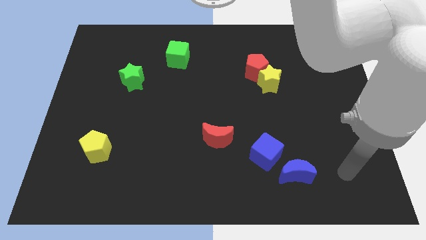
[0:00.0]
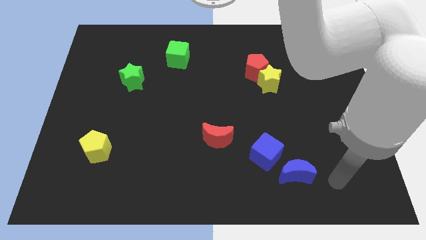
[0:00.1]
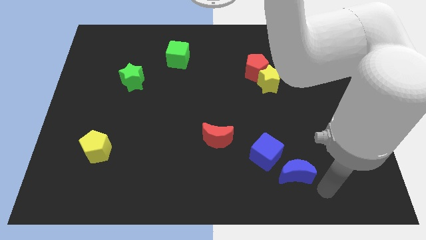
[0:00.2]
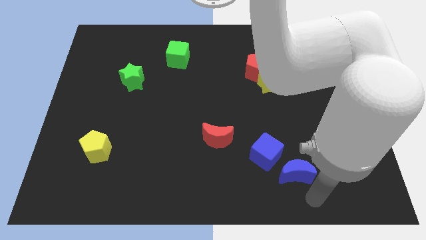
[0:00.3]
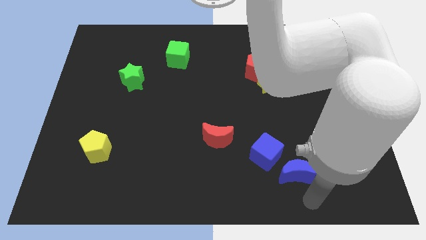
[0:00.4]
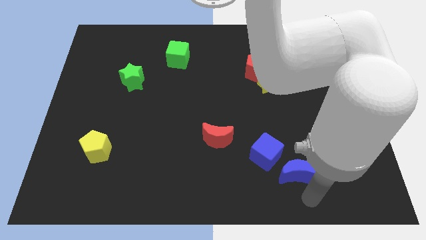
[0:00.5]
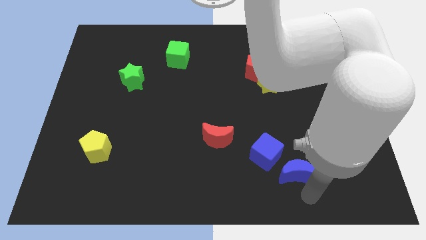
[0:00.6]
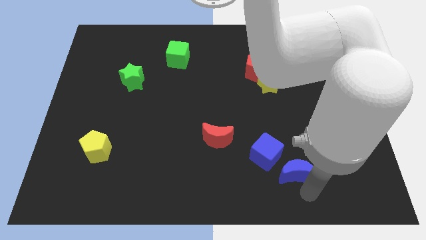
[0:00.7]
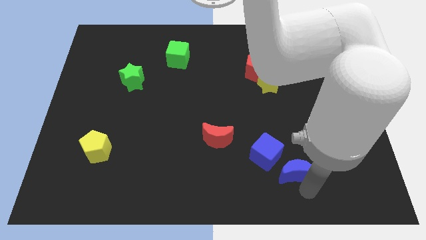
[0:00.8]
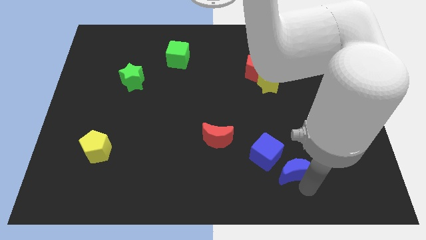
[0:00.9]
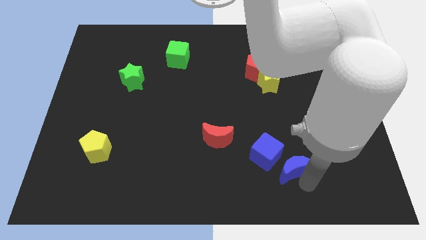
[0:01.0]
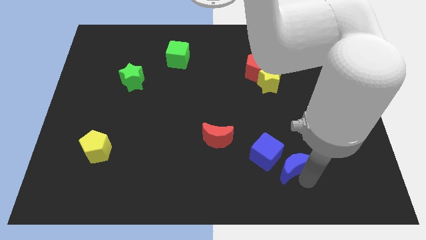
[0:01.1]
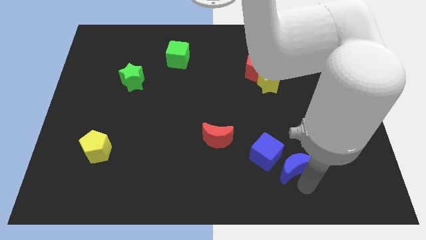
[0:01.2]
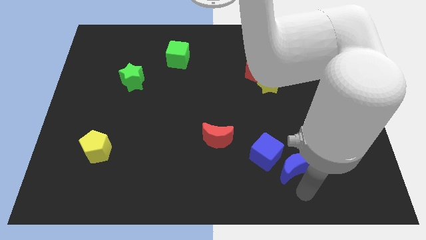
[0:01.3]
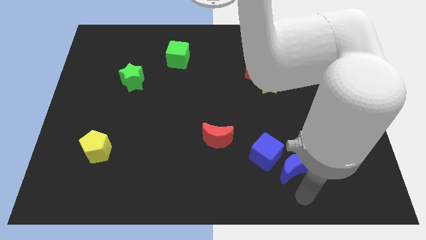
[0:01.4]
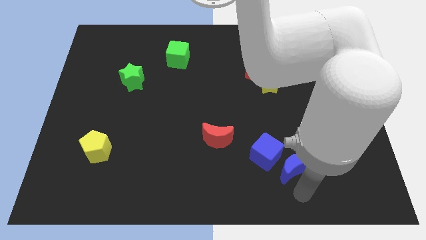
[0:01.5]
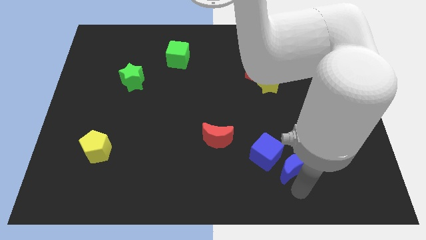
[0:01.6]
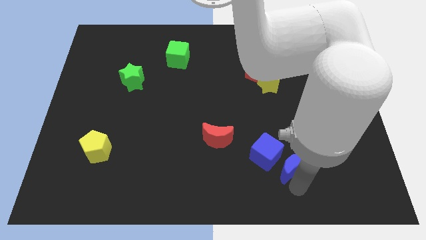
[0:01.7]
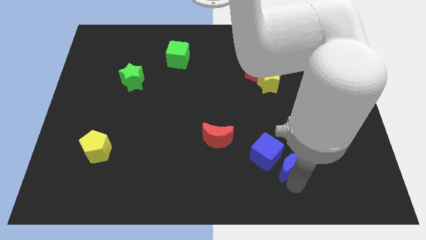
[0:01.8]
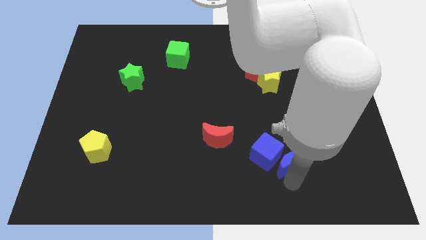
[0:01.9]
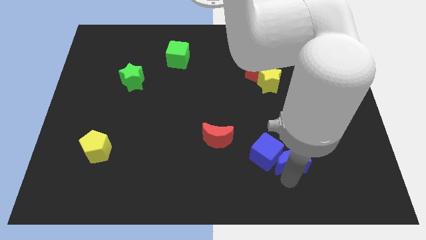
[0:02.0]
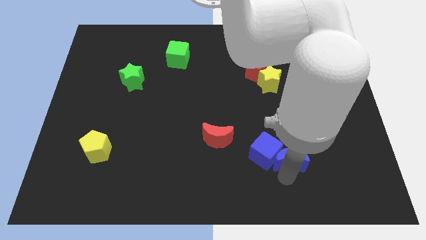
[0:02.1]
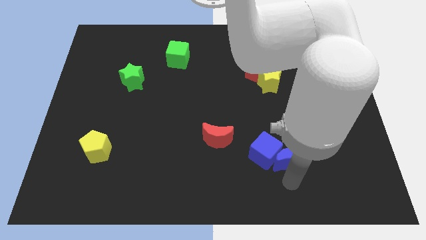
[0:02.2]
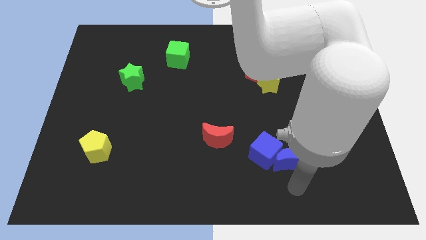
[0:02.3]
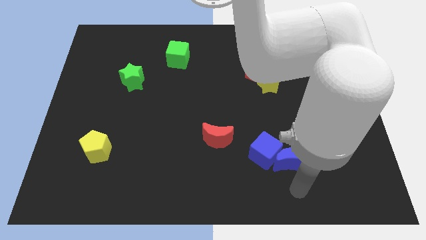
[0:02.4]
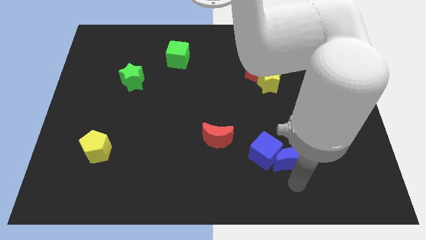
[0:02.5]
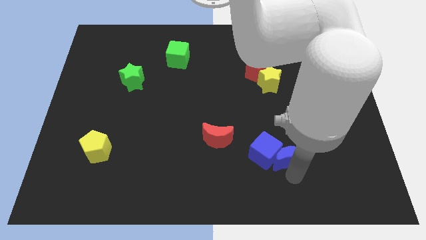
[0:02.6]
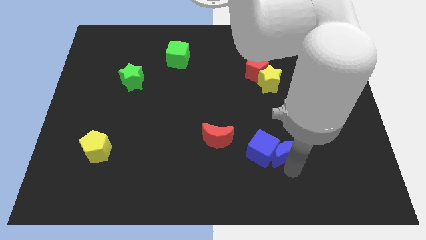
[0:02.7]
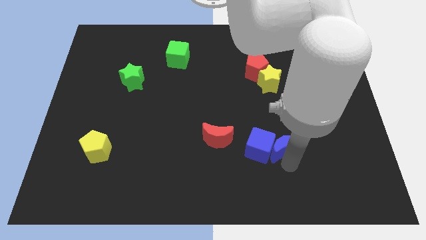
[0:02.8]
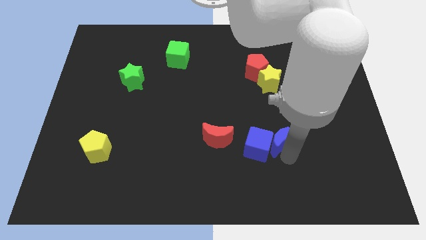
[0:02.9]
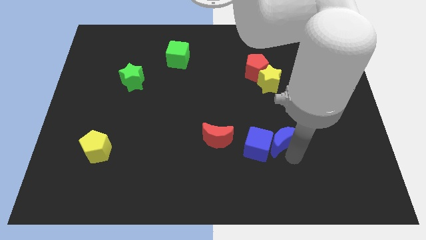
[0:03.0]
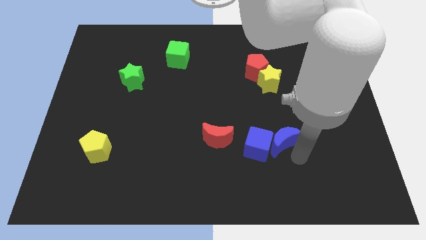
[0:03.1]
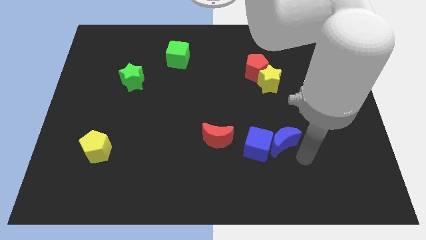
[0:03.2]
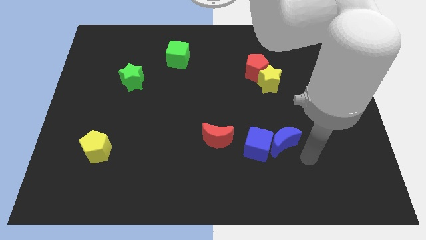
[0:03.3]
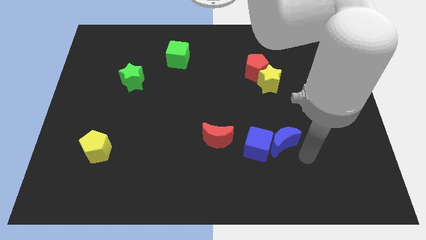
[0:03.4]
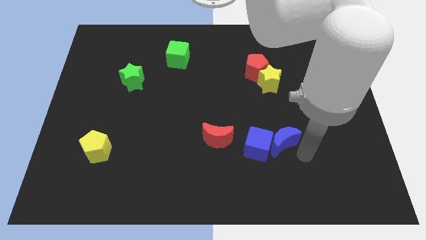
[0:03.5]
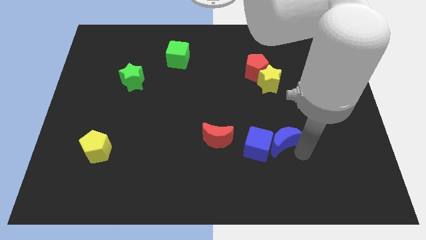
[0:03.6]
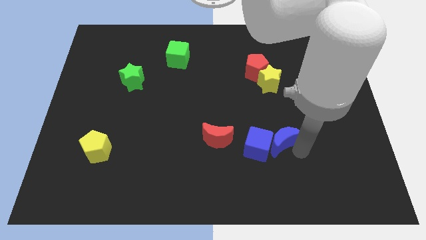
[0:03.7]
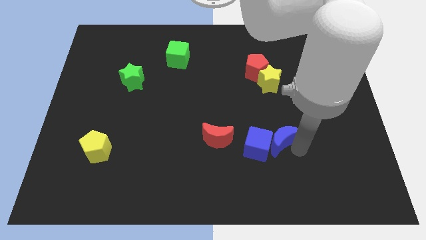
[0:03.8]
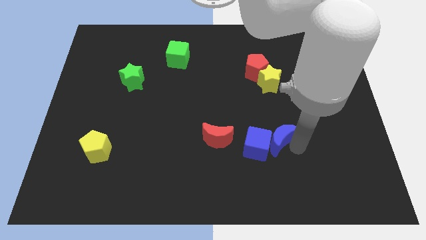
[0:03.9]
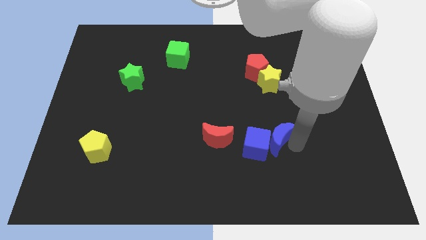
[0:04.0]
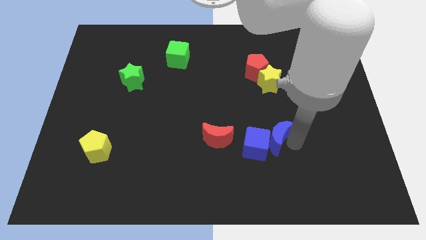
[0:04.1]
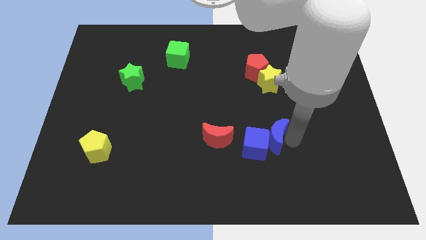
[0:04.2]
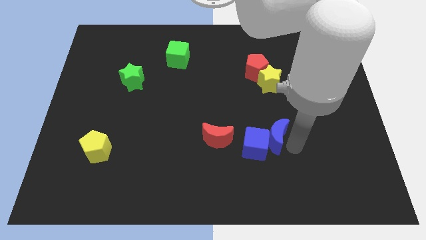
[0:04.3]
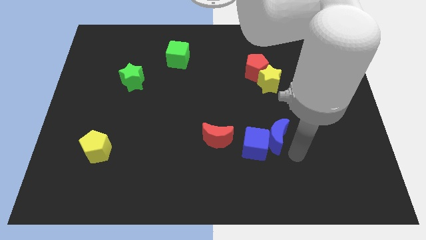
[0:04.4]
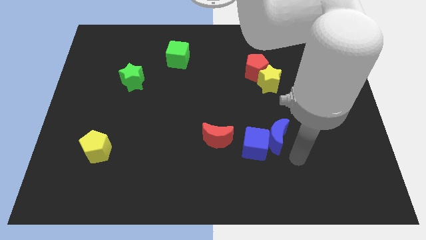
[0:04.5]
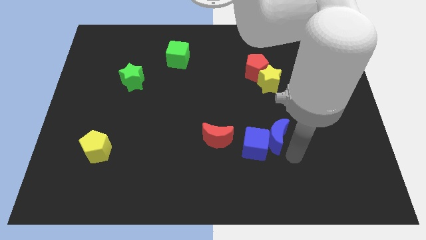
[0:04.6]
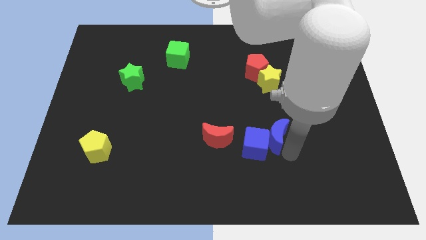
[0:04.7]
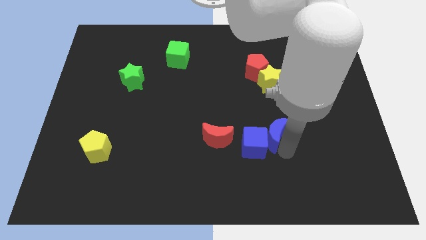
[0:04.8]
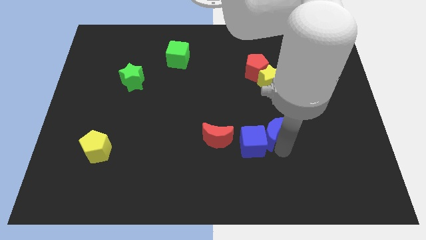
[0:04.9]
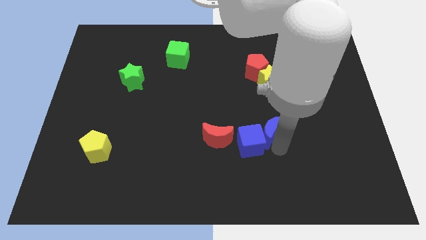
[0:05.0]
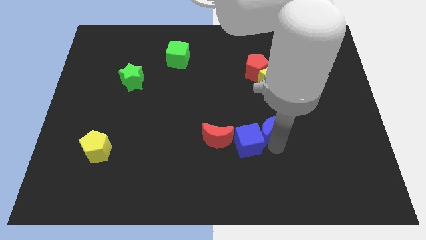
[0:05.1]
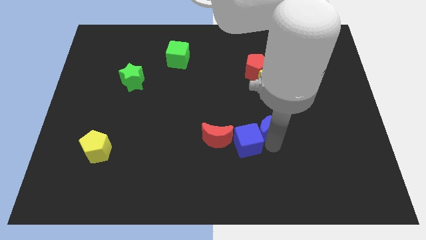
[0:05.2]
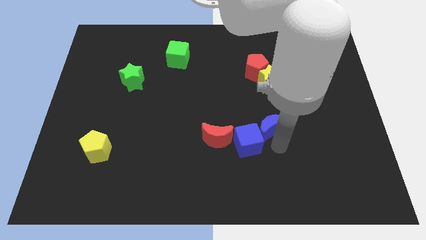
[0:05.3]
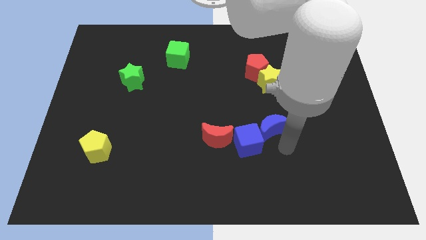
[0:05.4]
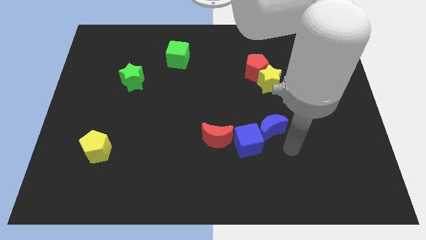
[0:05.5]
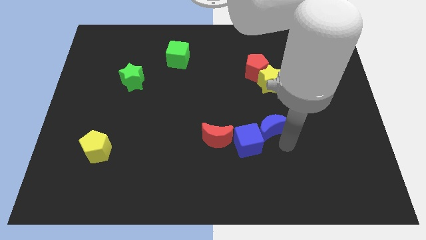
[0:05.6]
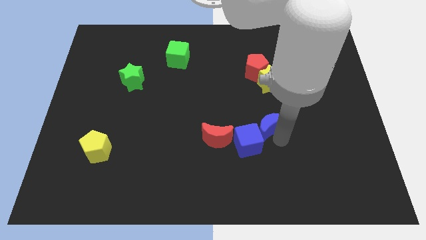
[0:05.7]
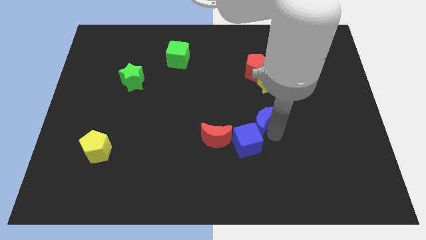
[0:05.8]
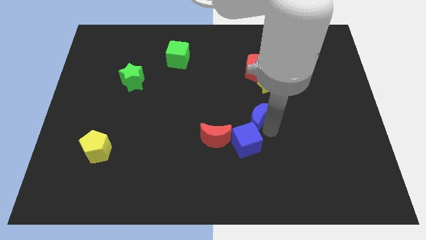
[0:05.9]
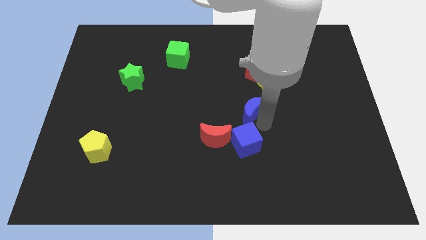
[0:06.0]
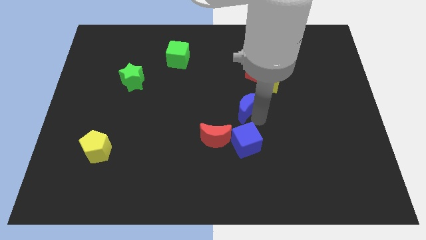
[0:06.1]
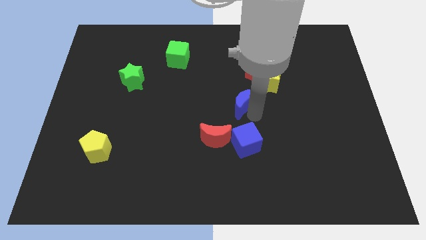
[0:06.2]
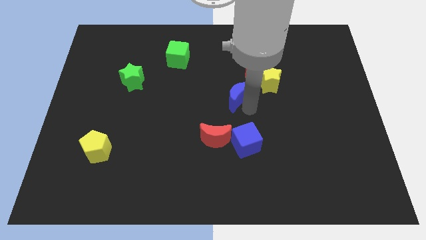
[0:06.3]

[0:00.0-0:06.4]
slide the blue moon diagonally up and left

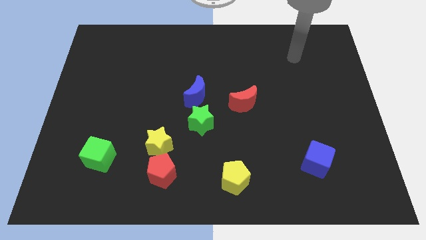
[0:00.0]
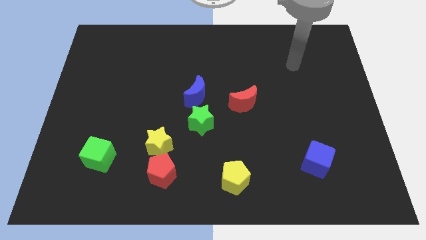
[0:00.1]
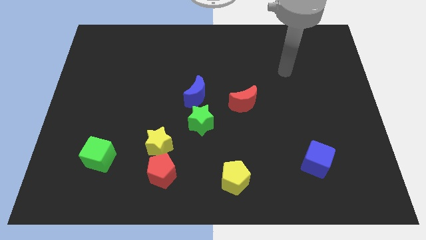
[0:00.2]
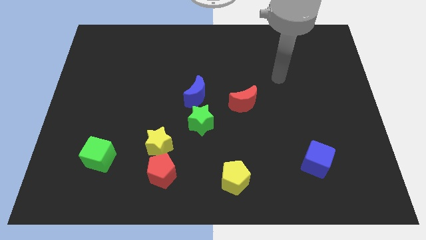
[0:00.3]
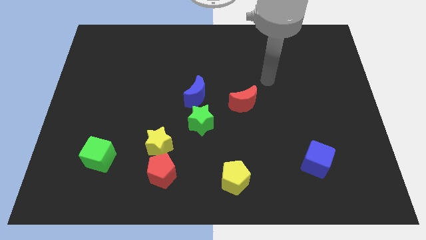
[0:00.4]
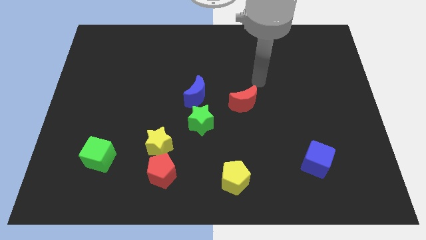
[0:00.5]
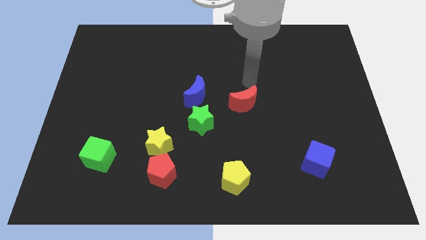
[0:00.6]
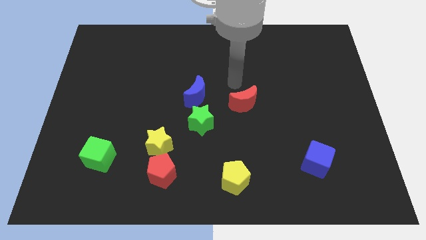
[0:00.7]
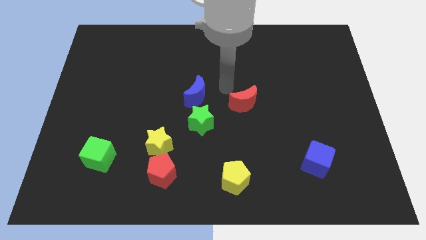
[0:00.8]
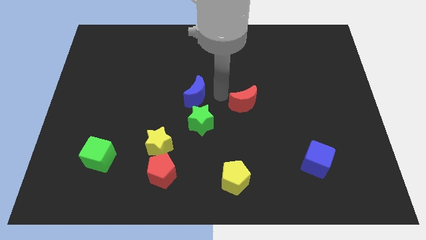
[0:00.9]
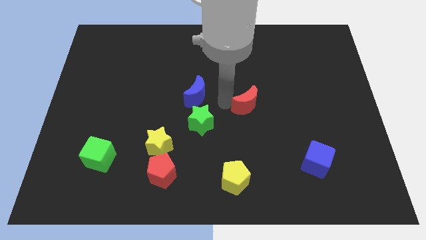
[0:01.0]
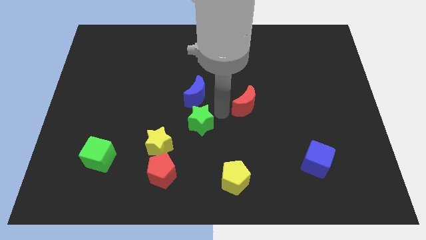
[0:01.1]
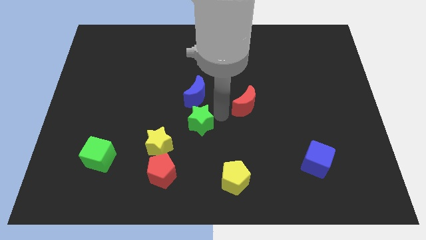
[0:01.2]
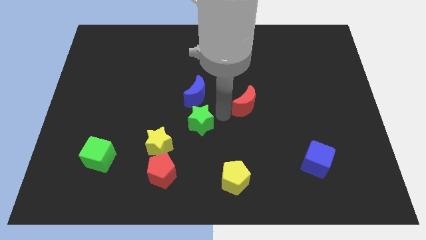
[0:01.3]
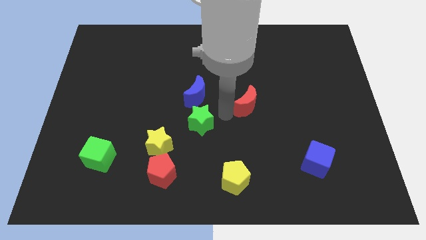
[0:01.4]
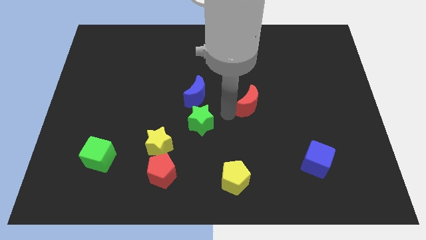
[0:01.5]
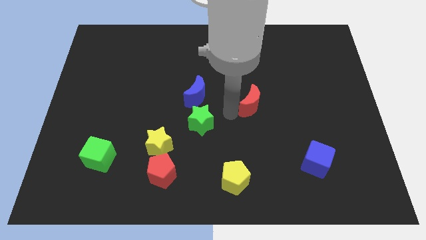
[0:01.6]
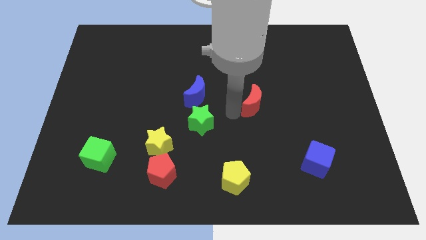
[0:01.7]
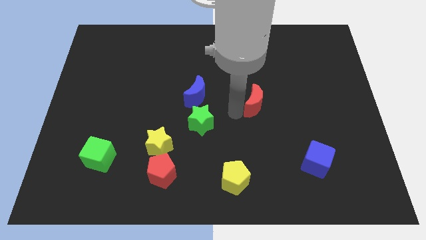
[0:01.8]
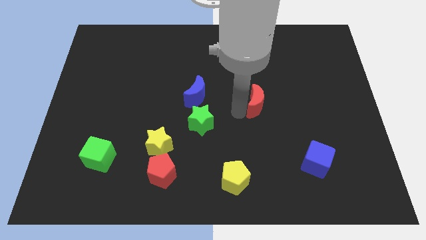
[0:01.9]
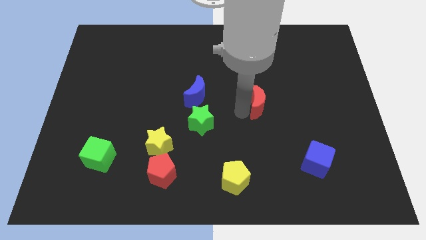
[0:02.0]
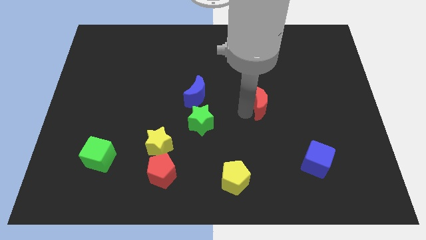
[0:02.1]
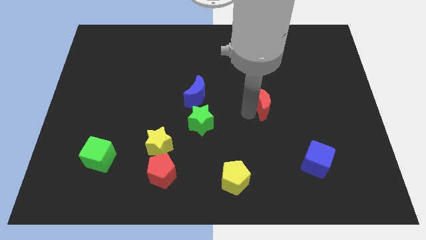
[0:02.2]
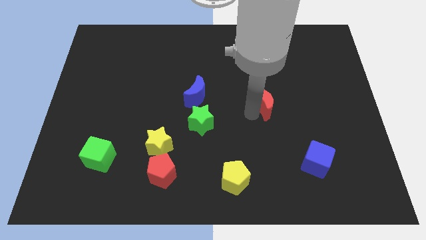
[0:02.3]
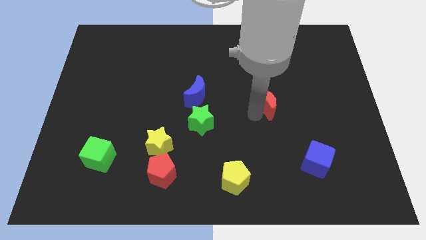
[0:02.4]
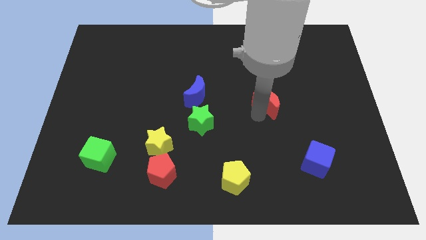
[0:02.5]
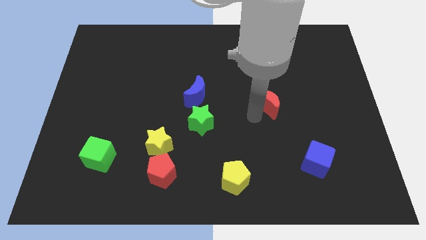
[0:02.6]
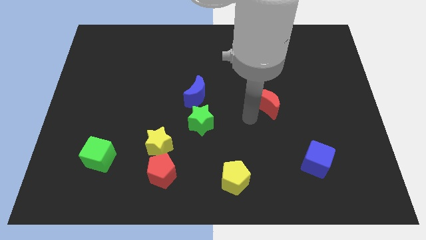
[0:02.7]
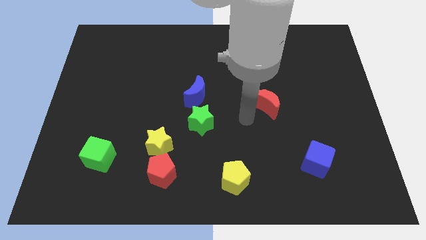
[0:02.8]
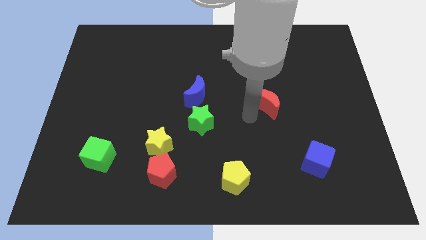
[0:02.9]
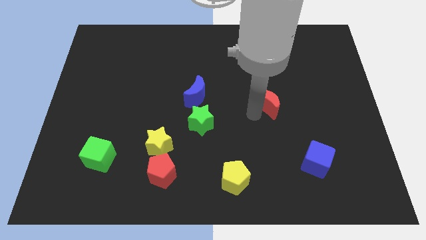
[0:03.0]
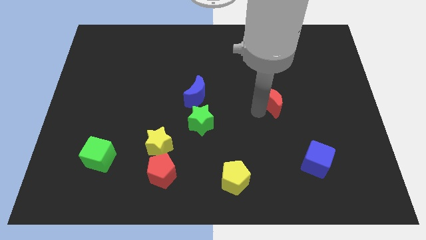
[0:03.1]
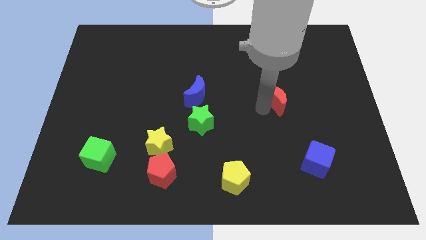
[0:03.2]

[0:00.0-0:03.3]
move the red moon to the right a bit
